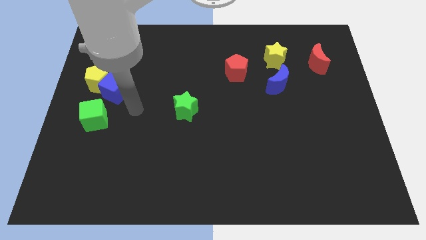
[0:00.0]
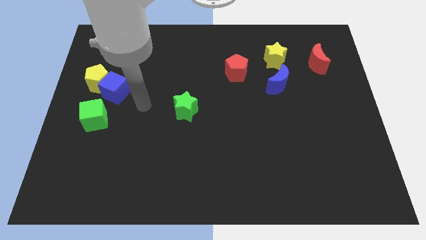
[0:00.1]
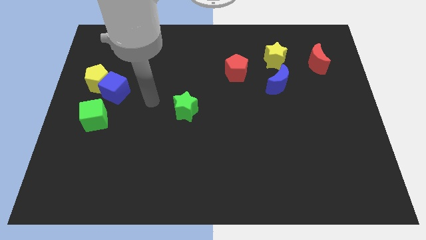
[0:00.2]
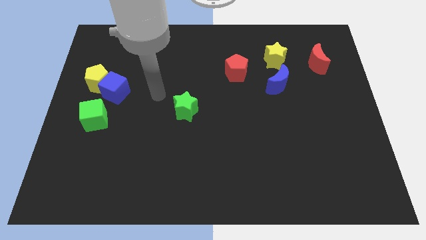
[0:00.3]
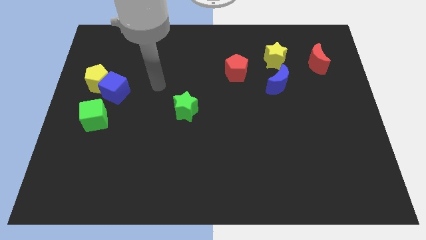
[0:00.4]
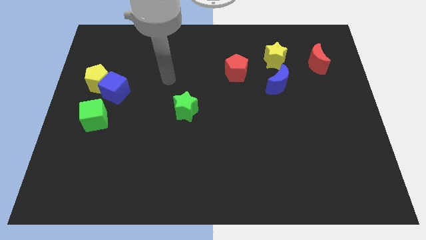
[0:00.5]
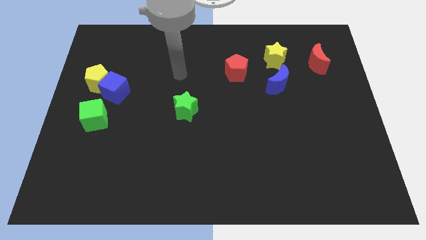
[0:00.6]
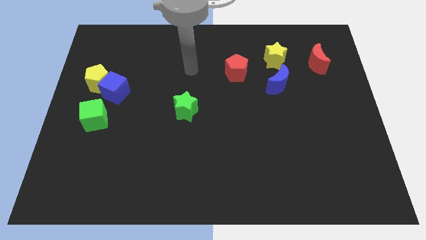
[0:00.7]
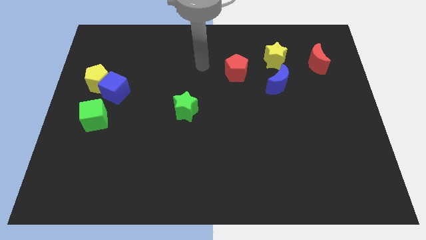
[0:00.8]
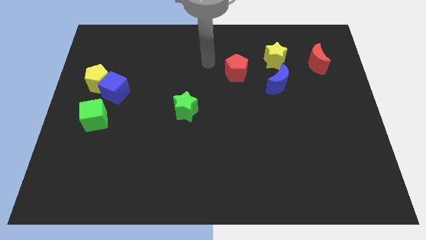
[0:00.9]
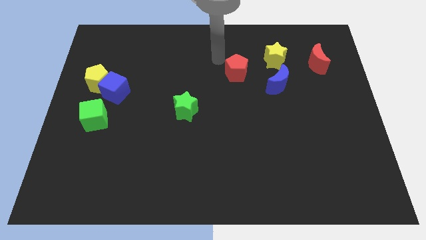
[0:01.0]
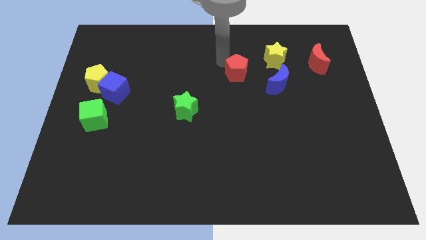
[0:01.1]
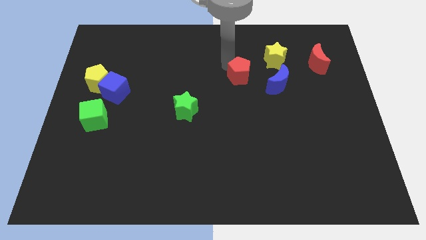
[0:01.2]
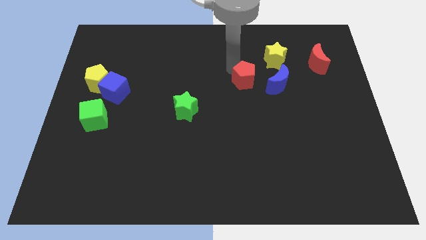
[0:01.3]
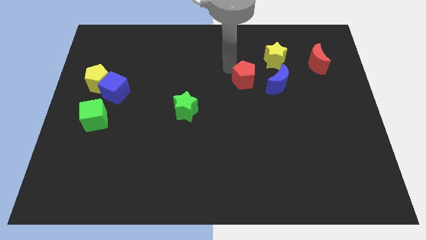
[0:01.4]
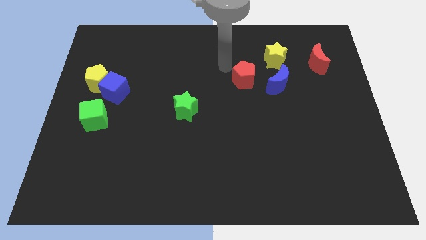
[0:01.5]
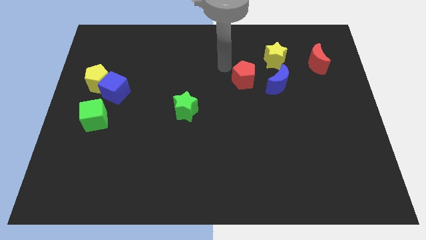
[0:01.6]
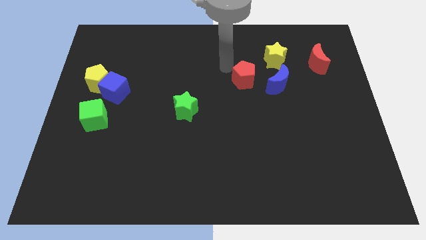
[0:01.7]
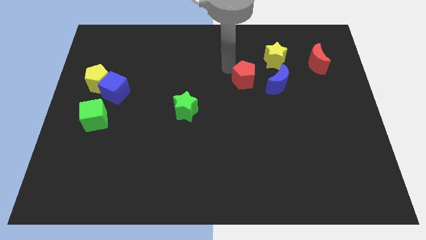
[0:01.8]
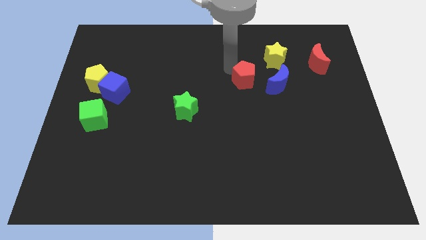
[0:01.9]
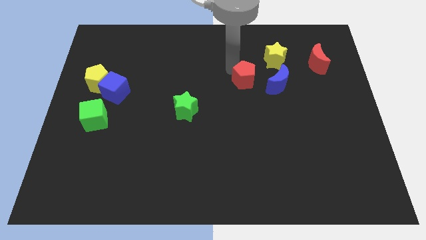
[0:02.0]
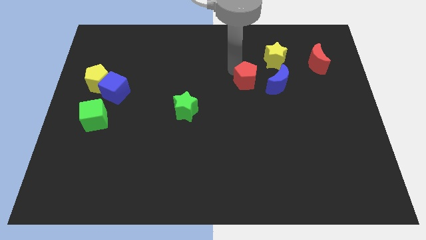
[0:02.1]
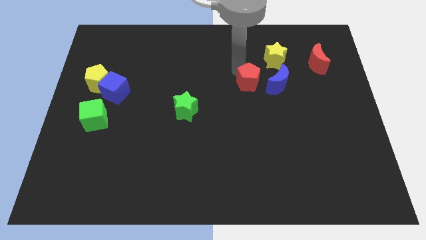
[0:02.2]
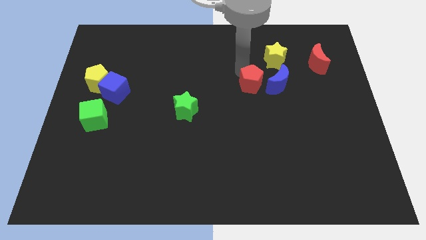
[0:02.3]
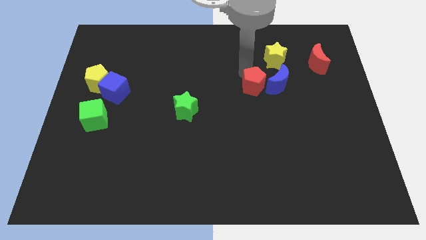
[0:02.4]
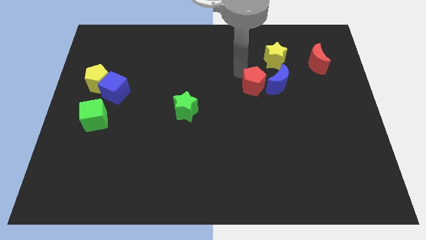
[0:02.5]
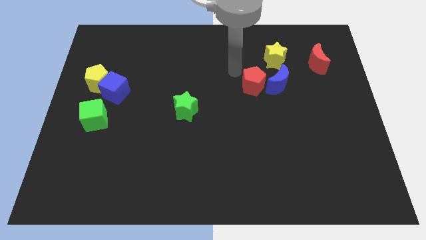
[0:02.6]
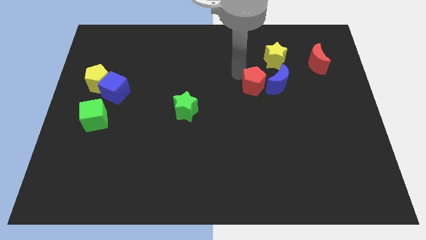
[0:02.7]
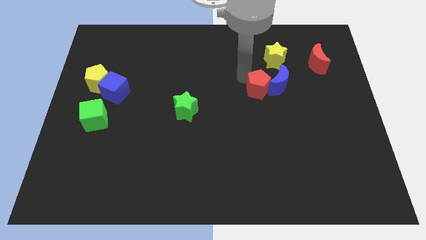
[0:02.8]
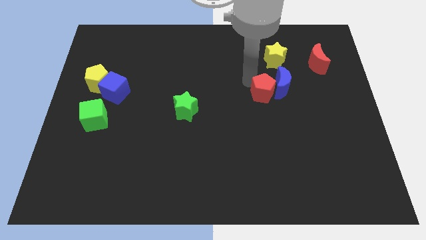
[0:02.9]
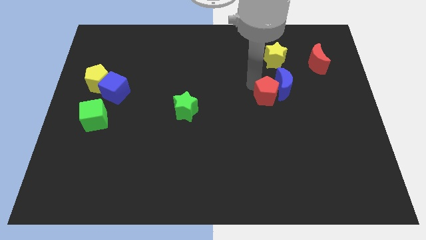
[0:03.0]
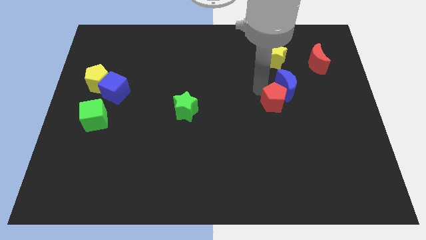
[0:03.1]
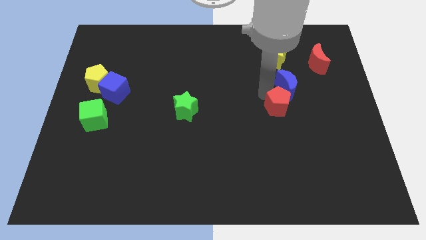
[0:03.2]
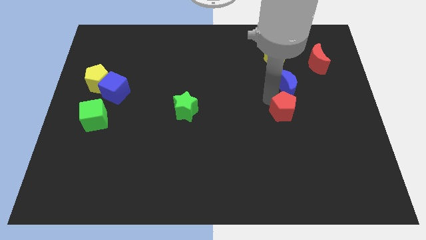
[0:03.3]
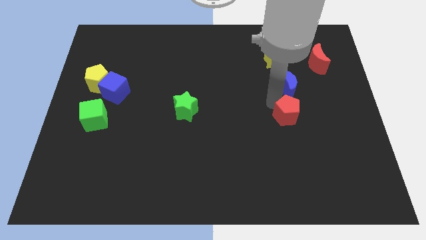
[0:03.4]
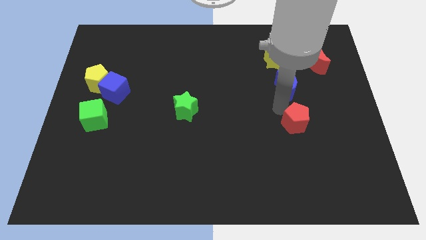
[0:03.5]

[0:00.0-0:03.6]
slide the red pentagon downwards and then to the right

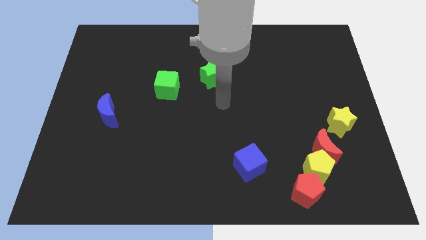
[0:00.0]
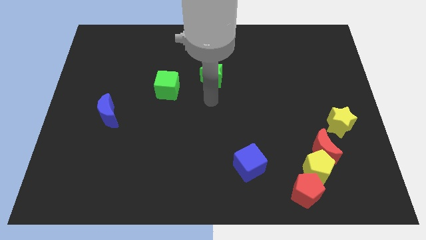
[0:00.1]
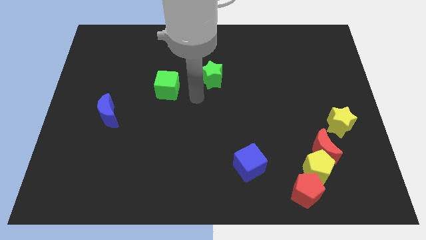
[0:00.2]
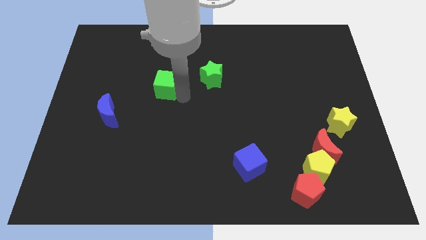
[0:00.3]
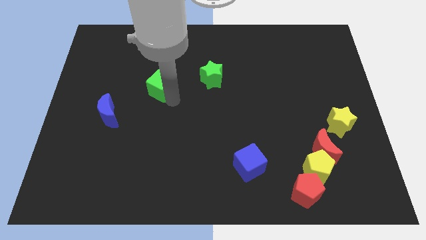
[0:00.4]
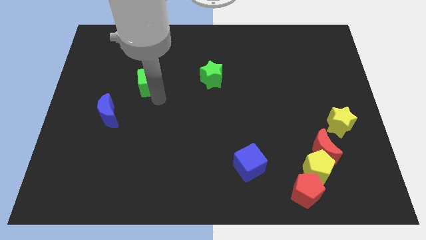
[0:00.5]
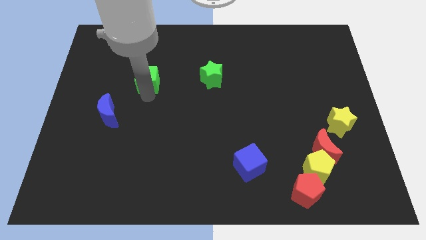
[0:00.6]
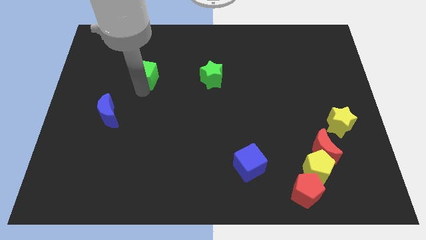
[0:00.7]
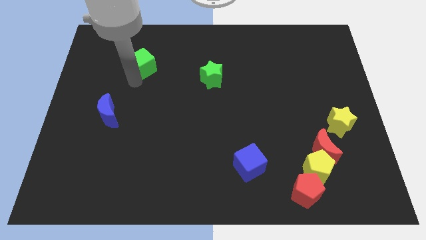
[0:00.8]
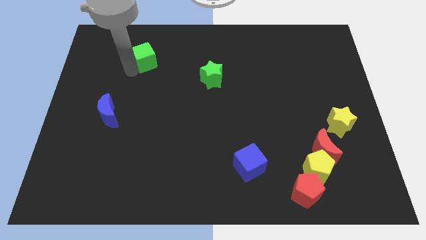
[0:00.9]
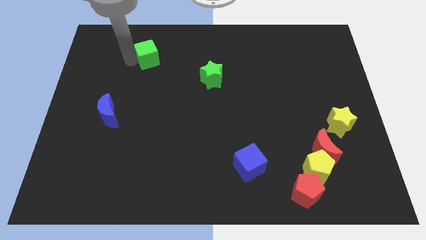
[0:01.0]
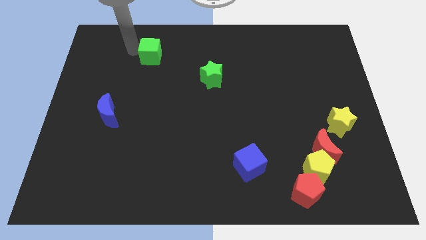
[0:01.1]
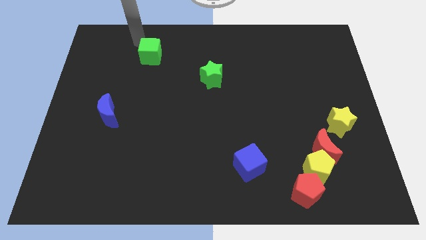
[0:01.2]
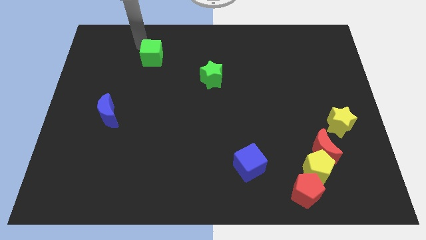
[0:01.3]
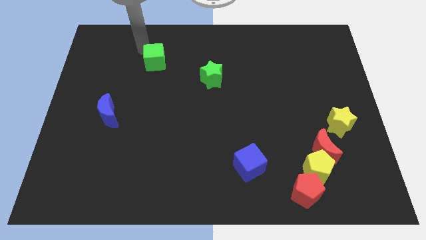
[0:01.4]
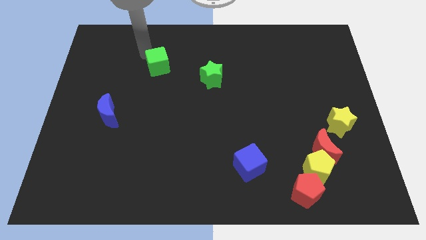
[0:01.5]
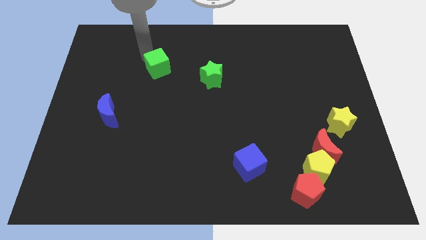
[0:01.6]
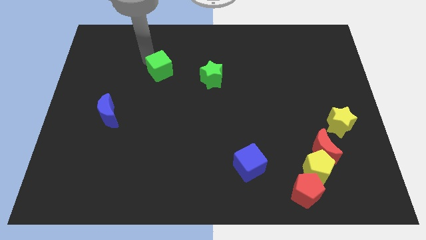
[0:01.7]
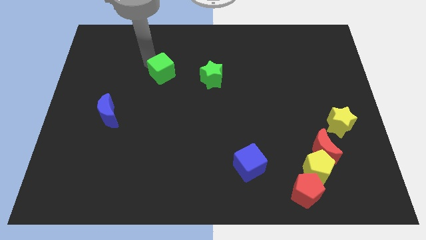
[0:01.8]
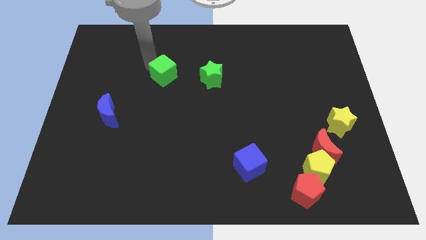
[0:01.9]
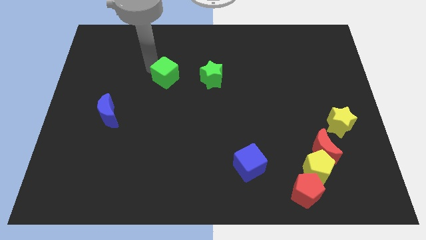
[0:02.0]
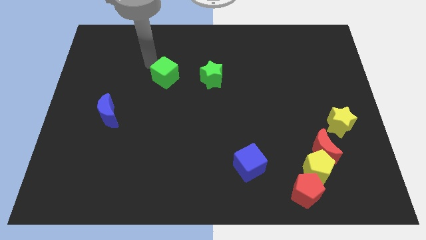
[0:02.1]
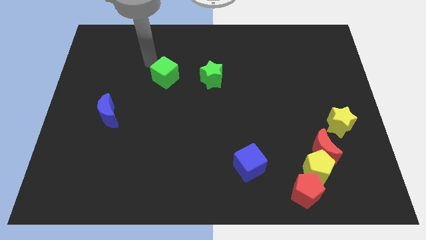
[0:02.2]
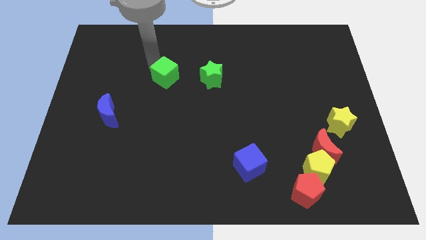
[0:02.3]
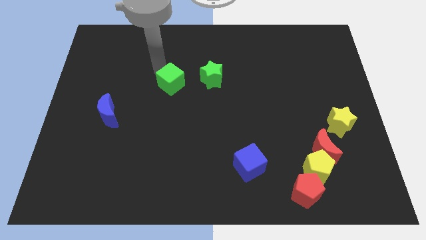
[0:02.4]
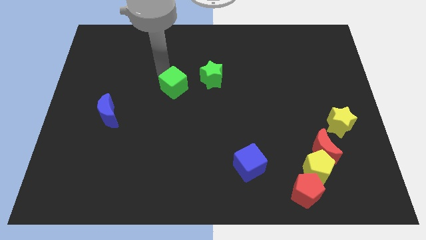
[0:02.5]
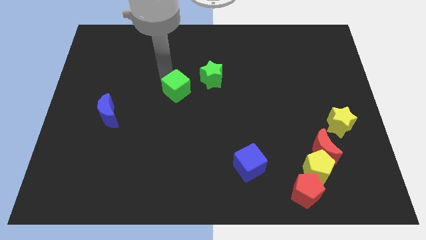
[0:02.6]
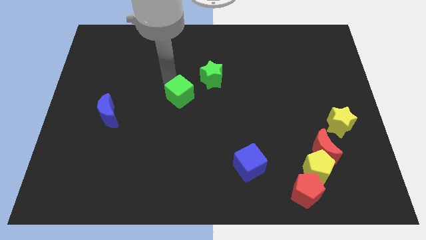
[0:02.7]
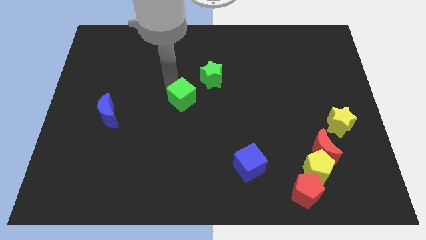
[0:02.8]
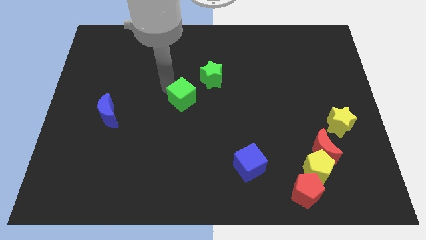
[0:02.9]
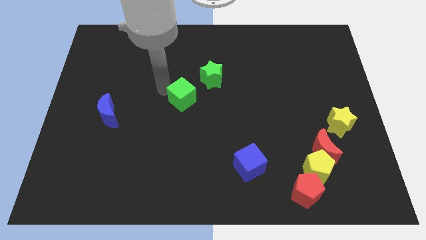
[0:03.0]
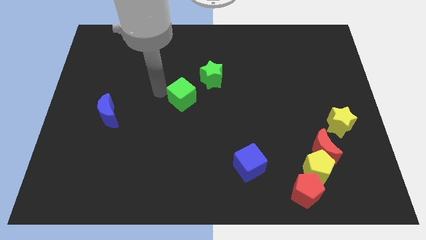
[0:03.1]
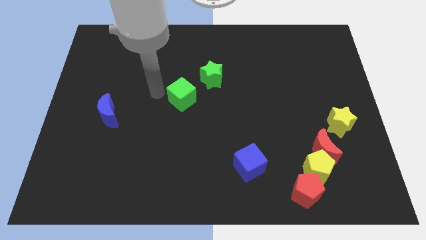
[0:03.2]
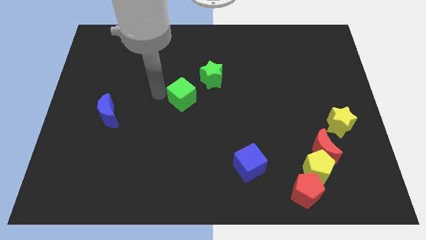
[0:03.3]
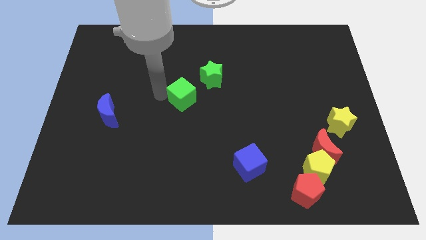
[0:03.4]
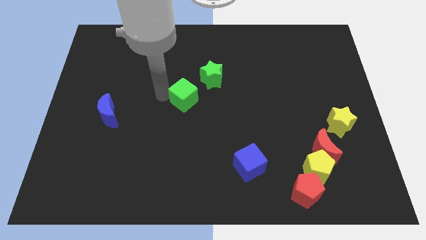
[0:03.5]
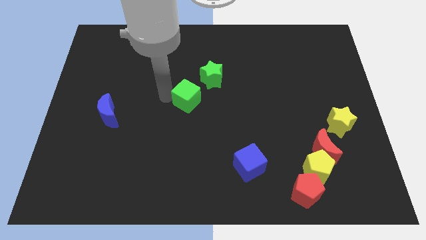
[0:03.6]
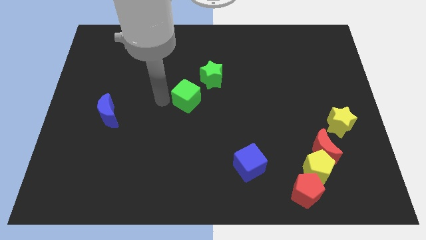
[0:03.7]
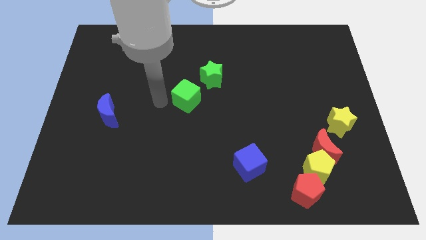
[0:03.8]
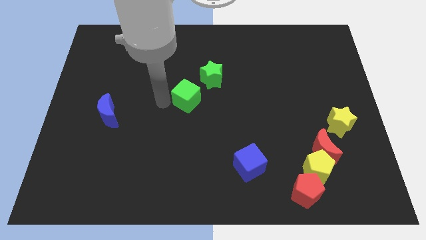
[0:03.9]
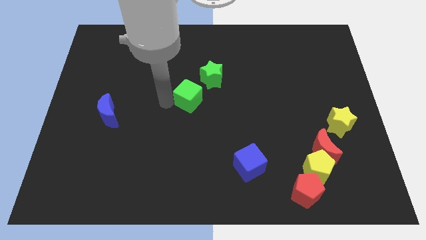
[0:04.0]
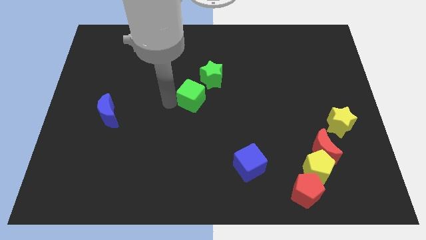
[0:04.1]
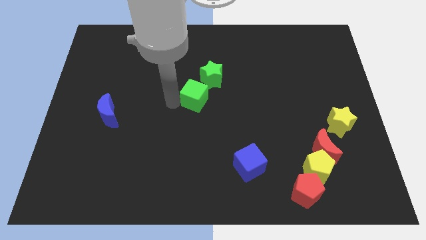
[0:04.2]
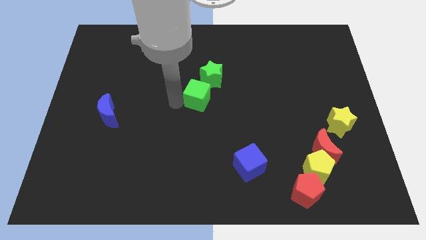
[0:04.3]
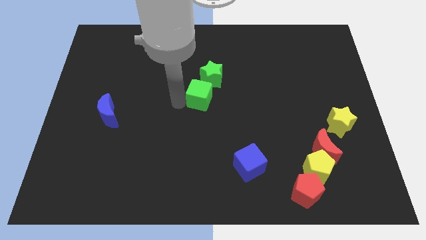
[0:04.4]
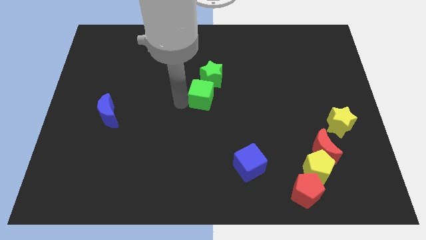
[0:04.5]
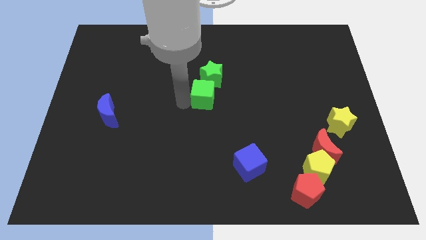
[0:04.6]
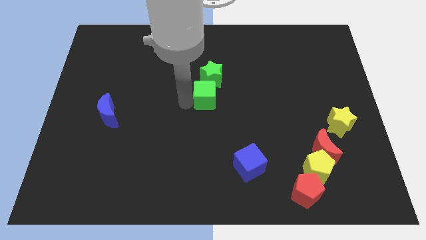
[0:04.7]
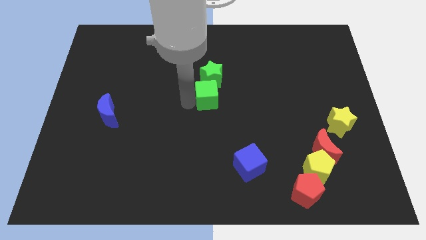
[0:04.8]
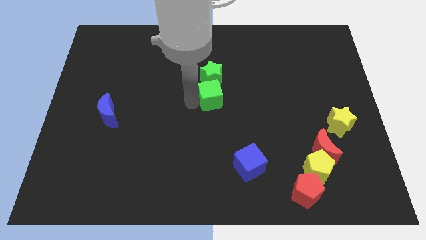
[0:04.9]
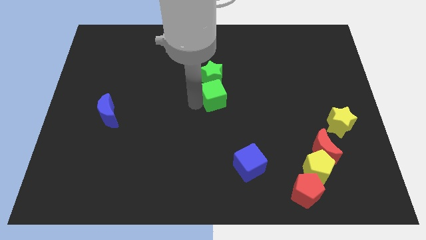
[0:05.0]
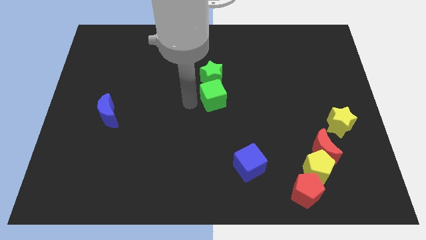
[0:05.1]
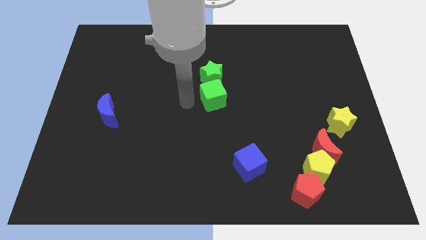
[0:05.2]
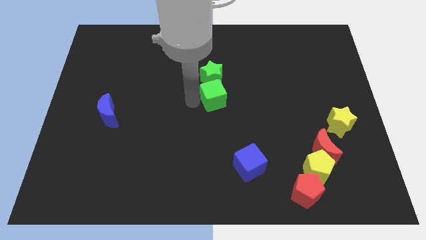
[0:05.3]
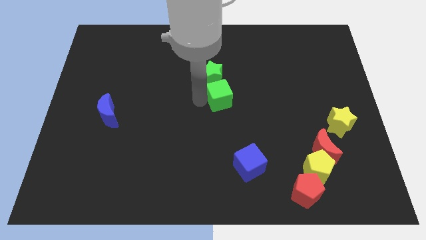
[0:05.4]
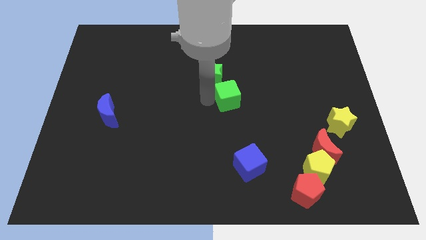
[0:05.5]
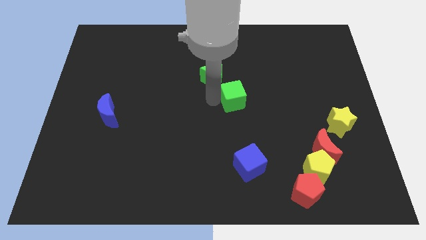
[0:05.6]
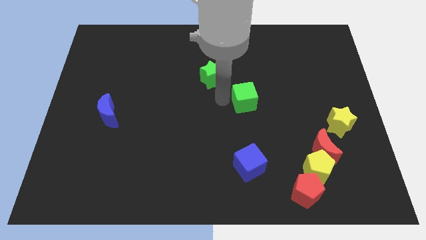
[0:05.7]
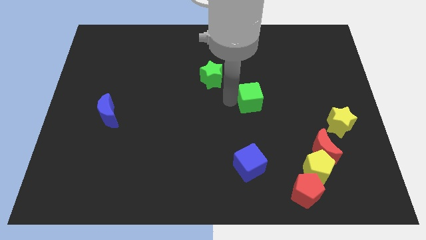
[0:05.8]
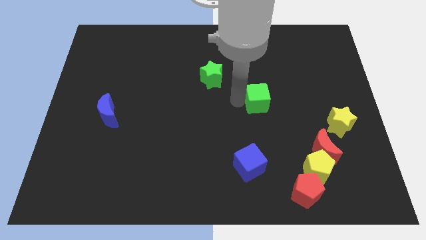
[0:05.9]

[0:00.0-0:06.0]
move the green cube to the right
